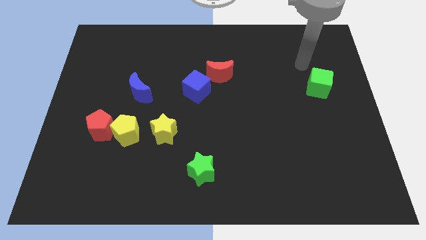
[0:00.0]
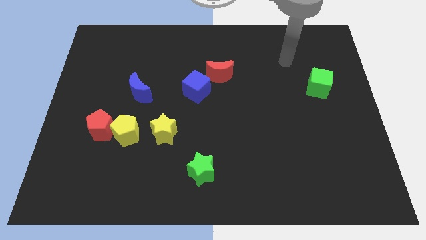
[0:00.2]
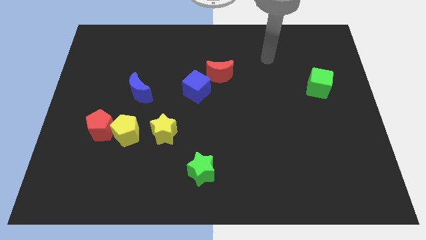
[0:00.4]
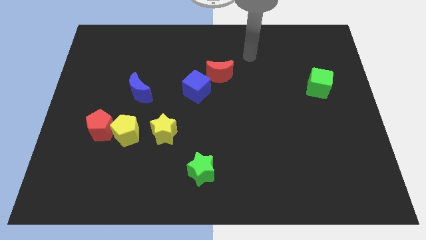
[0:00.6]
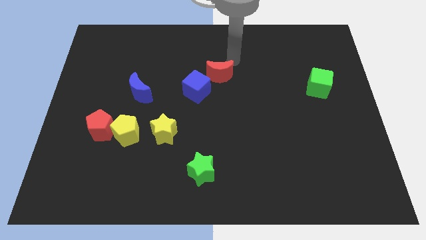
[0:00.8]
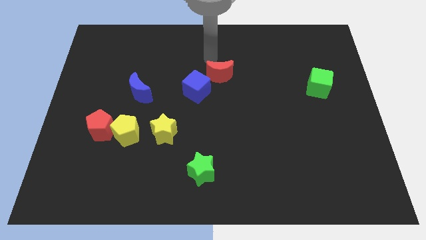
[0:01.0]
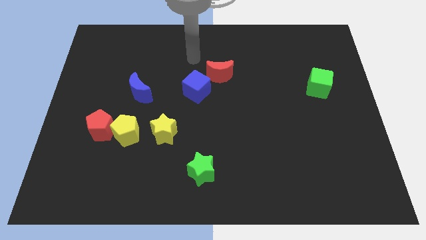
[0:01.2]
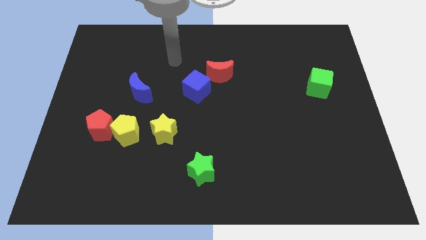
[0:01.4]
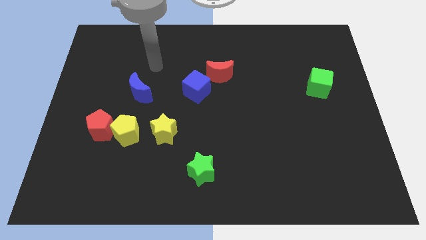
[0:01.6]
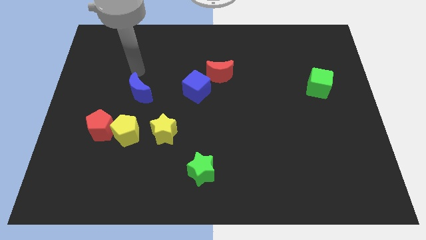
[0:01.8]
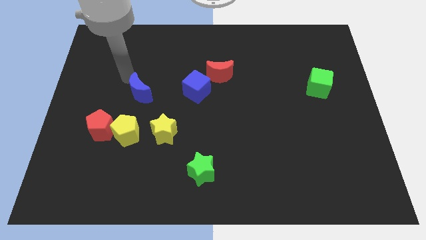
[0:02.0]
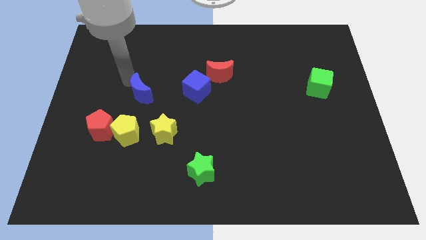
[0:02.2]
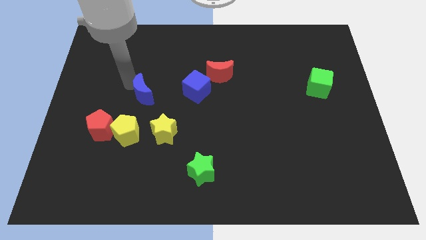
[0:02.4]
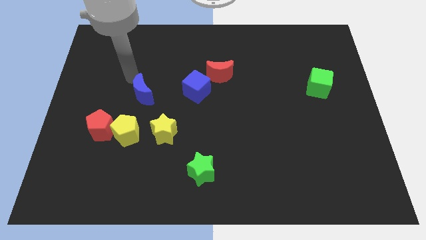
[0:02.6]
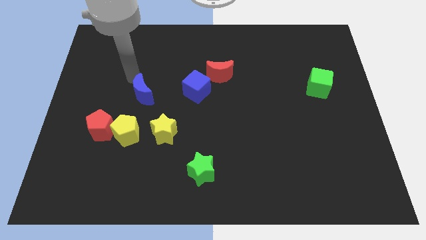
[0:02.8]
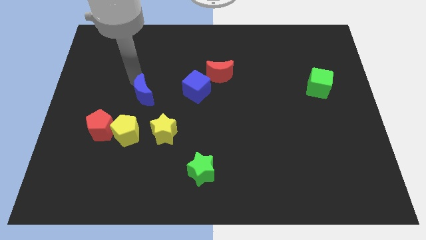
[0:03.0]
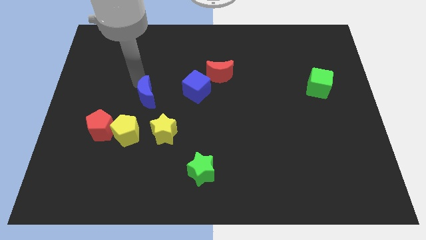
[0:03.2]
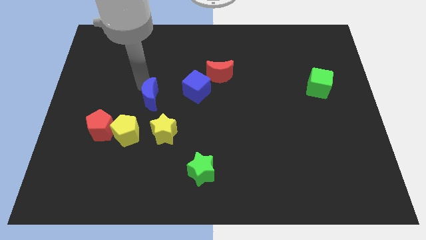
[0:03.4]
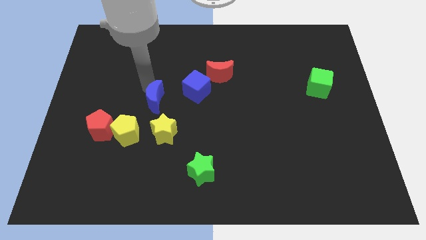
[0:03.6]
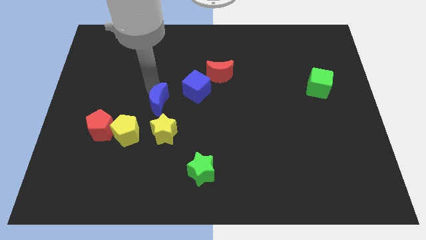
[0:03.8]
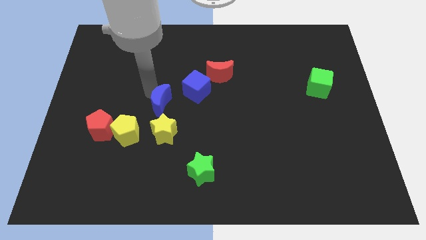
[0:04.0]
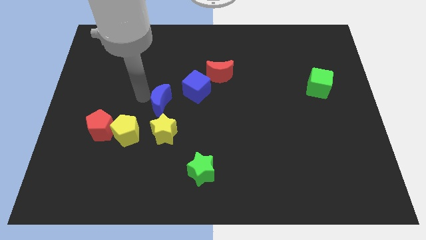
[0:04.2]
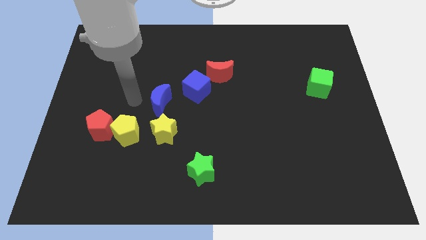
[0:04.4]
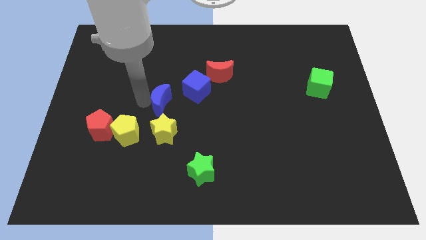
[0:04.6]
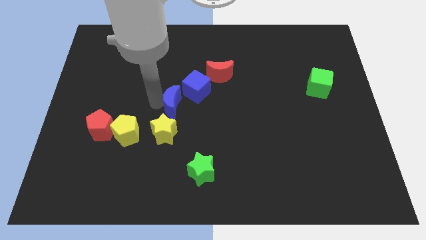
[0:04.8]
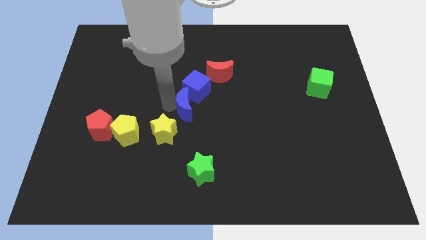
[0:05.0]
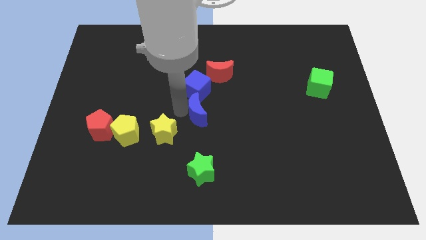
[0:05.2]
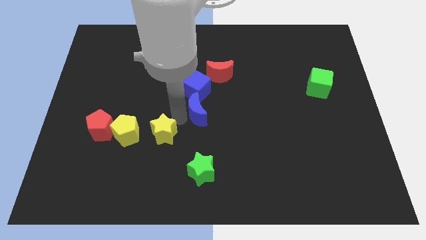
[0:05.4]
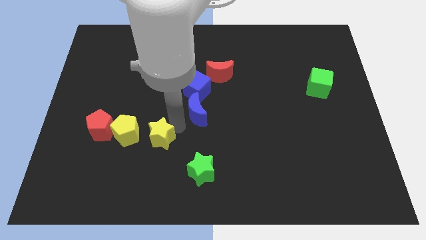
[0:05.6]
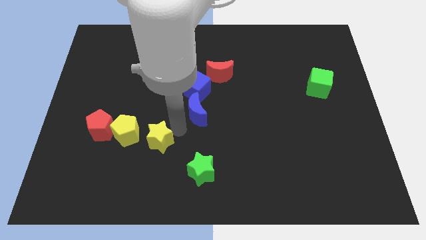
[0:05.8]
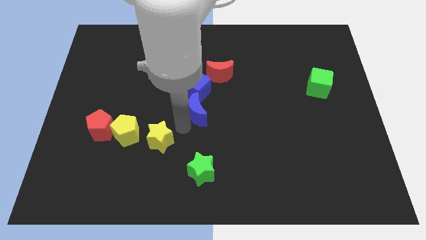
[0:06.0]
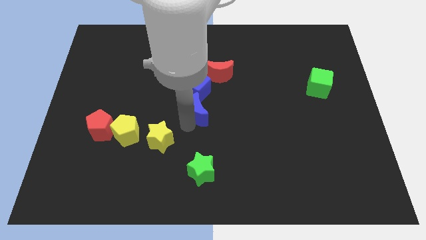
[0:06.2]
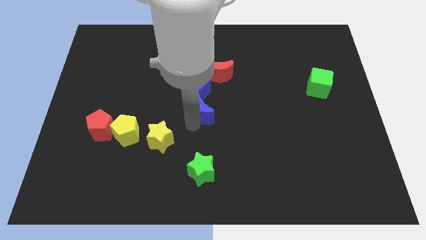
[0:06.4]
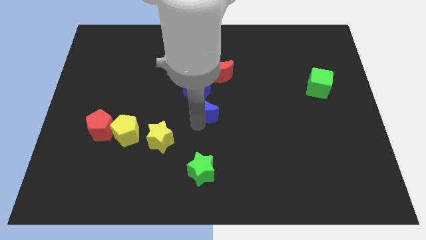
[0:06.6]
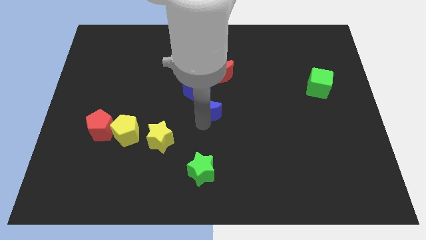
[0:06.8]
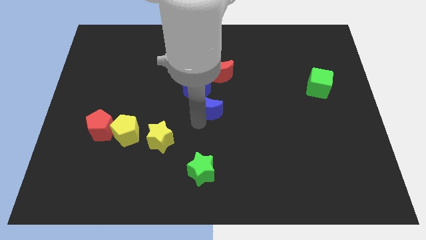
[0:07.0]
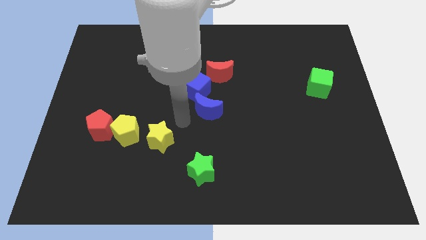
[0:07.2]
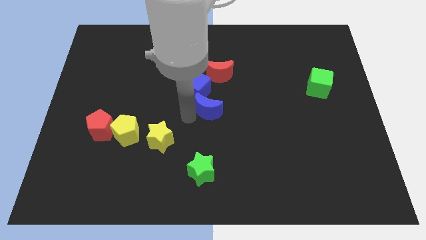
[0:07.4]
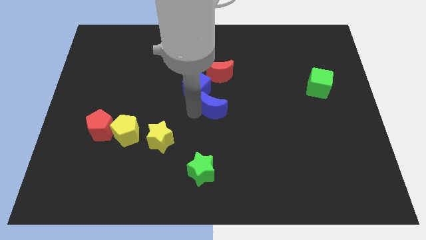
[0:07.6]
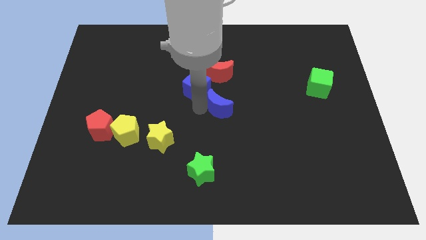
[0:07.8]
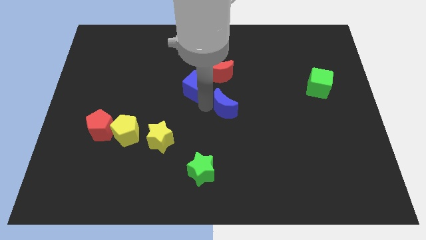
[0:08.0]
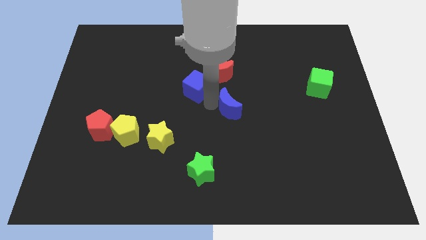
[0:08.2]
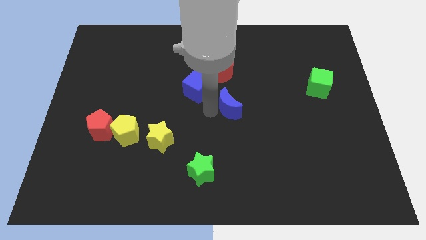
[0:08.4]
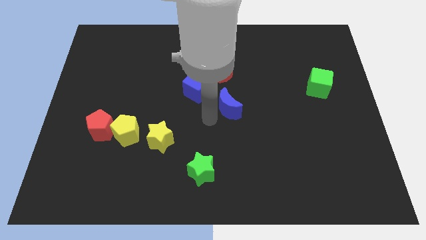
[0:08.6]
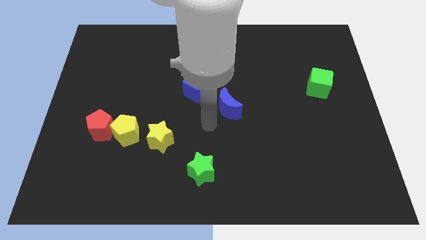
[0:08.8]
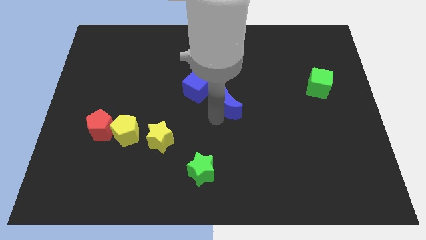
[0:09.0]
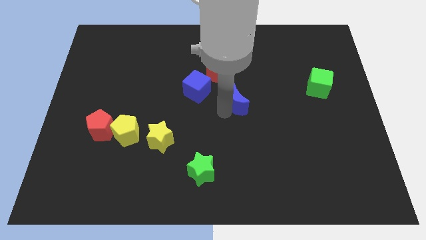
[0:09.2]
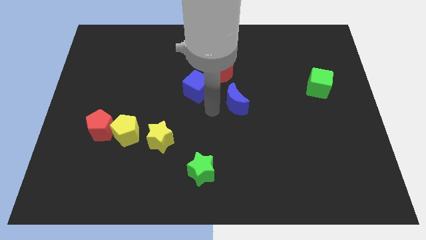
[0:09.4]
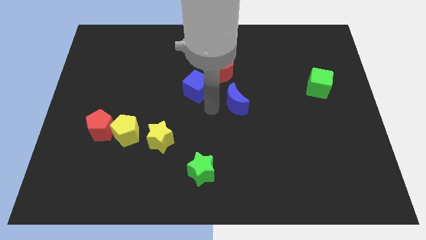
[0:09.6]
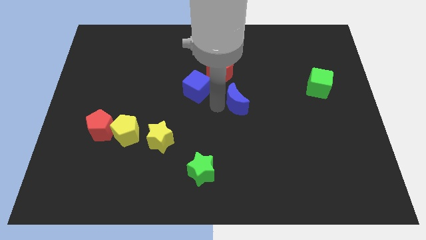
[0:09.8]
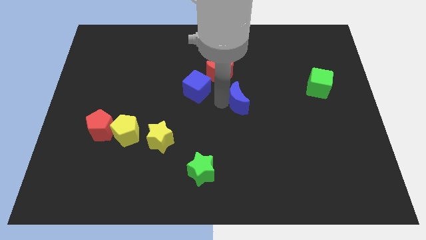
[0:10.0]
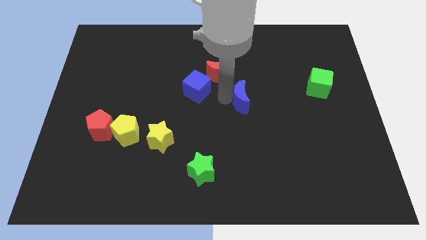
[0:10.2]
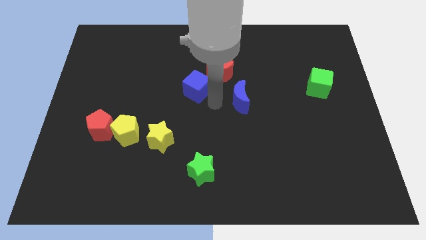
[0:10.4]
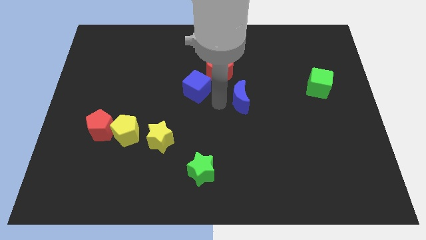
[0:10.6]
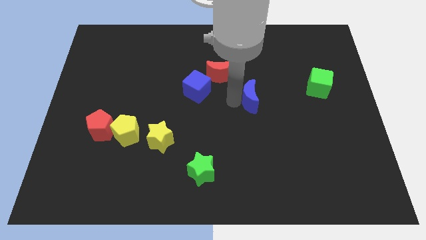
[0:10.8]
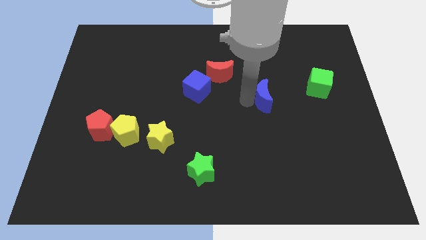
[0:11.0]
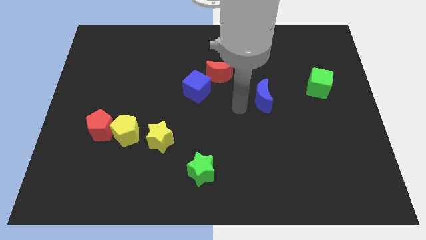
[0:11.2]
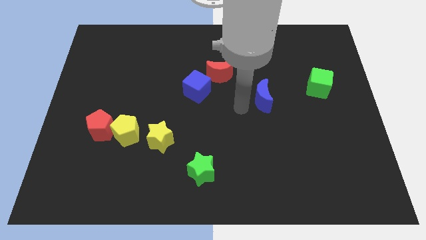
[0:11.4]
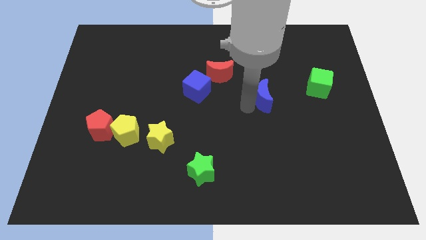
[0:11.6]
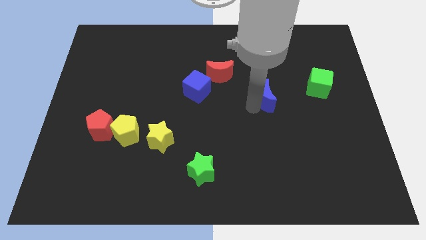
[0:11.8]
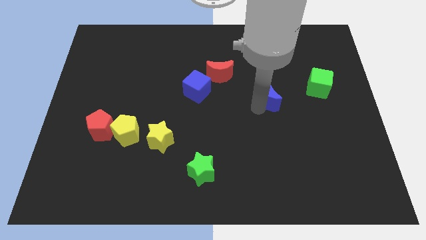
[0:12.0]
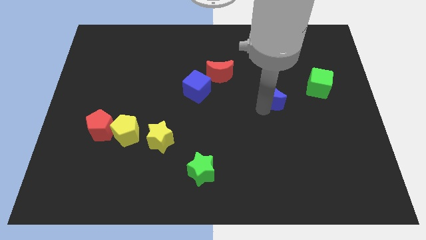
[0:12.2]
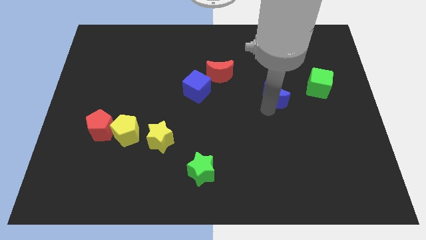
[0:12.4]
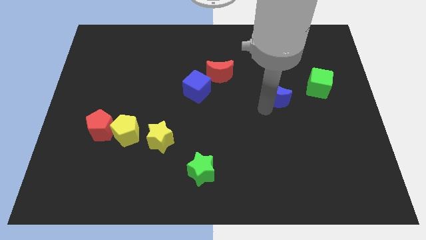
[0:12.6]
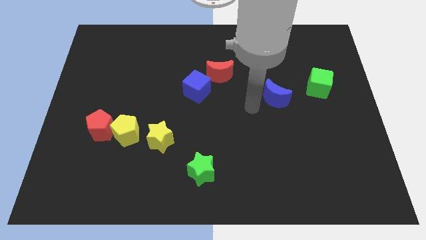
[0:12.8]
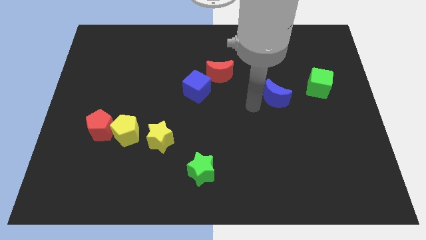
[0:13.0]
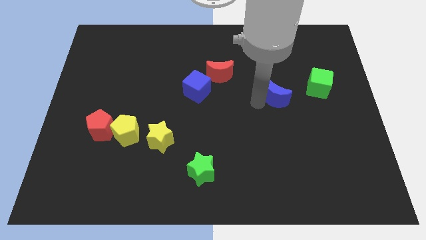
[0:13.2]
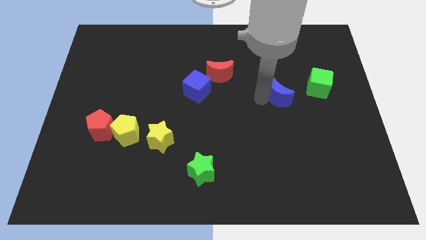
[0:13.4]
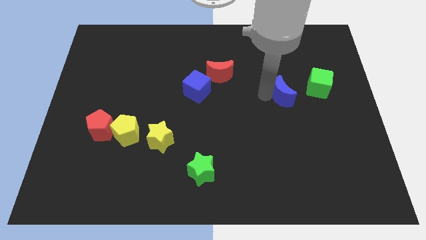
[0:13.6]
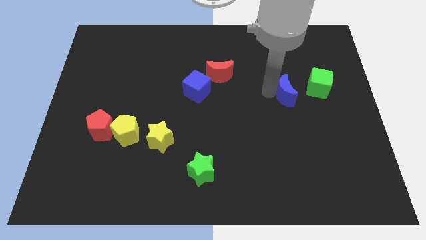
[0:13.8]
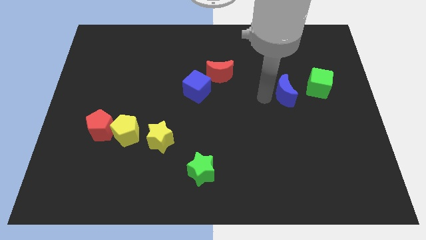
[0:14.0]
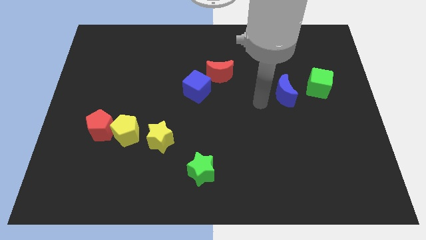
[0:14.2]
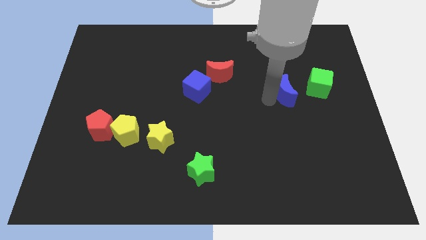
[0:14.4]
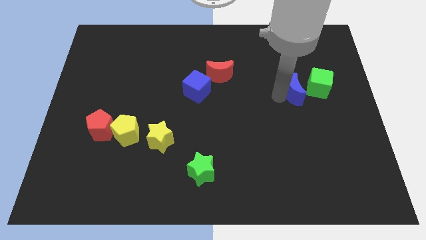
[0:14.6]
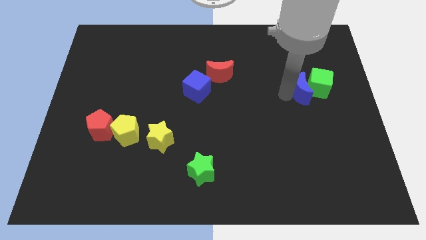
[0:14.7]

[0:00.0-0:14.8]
put the blue moon next to the green cube

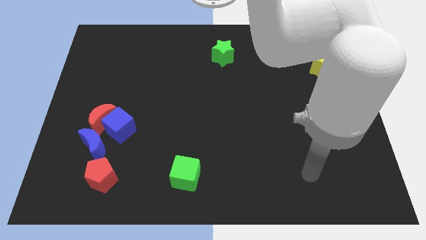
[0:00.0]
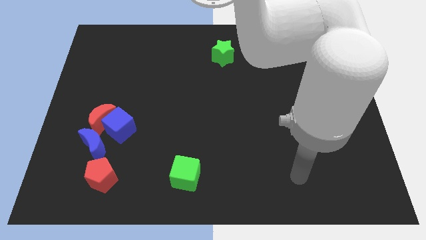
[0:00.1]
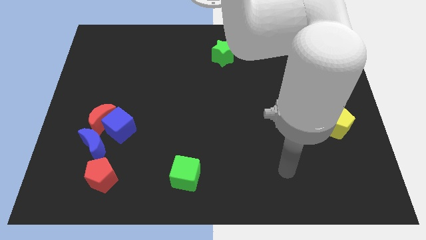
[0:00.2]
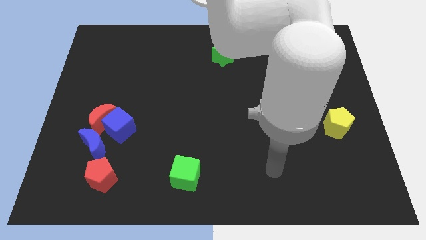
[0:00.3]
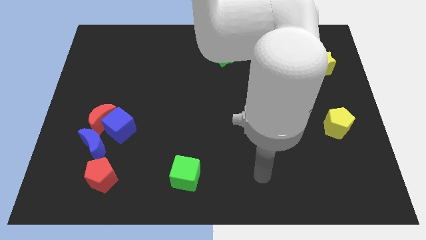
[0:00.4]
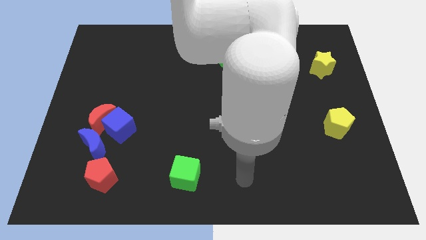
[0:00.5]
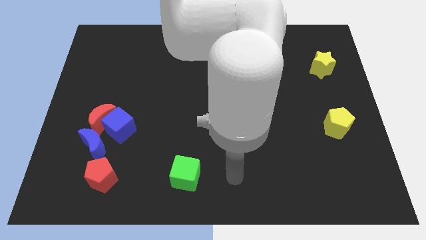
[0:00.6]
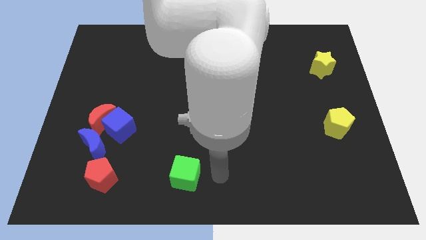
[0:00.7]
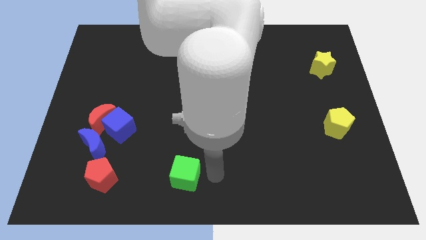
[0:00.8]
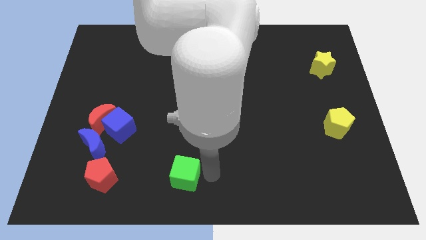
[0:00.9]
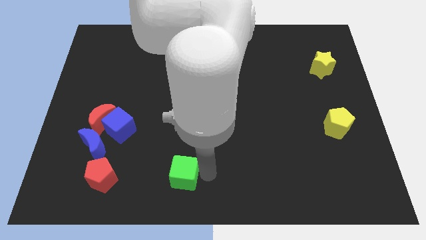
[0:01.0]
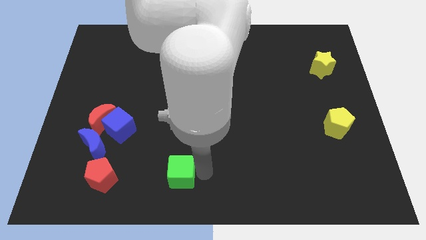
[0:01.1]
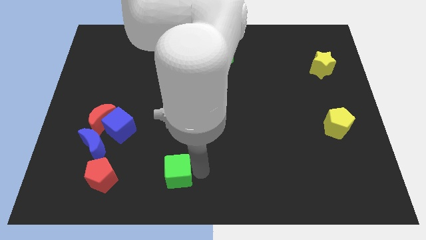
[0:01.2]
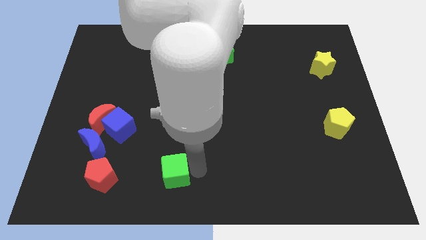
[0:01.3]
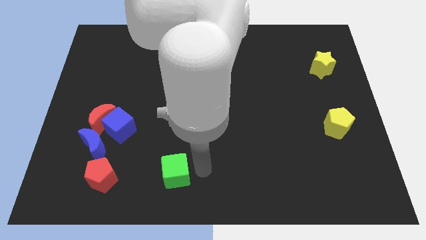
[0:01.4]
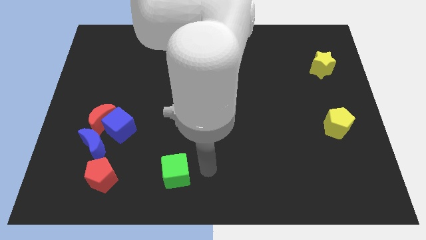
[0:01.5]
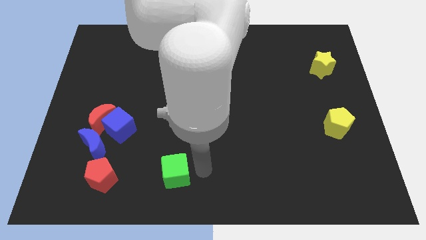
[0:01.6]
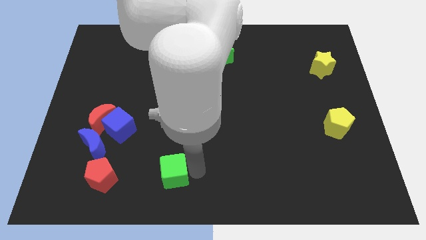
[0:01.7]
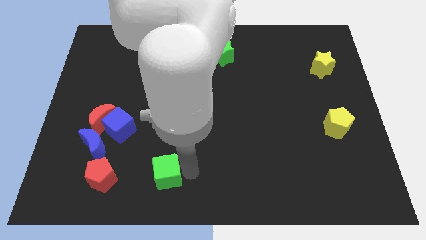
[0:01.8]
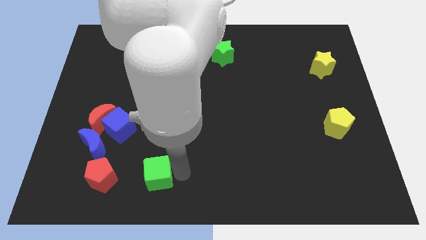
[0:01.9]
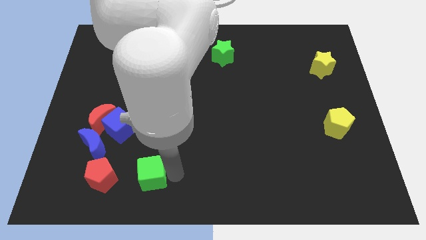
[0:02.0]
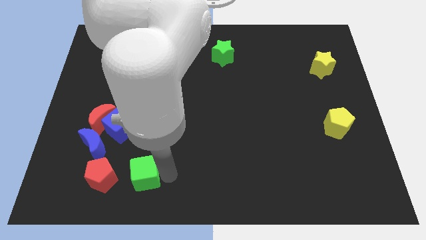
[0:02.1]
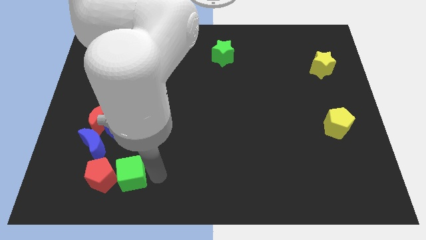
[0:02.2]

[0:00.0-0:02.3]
put the green cube next to the red pentagon
